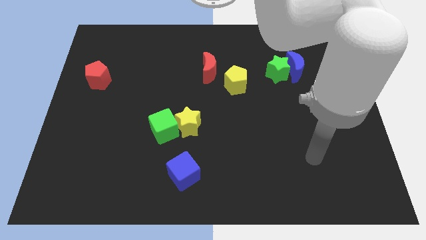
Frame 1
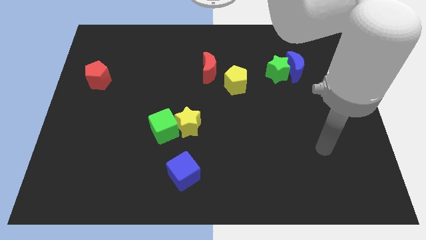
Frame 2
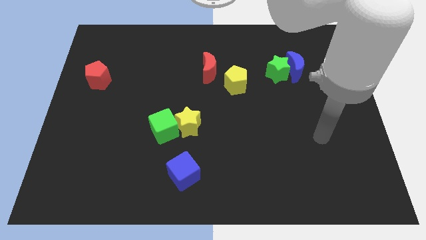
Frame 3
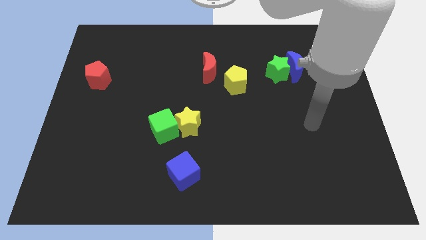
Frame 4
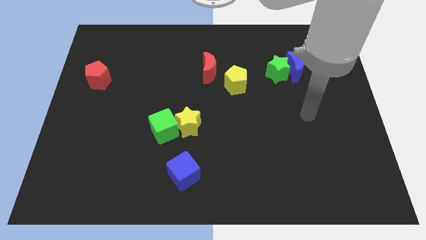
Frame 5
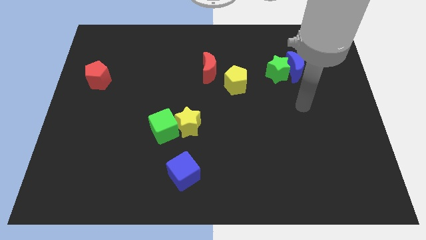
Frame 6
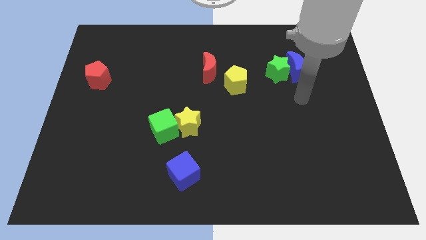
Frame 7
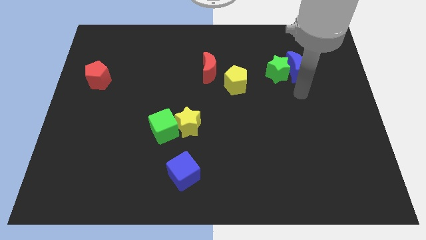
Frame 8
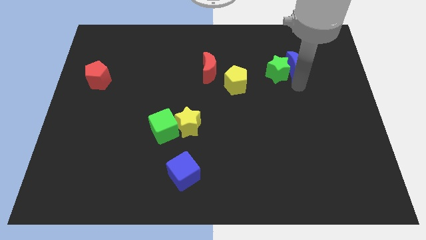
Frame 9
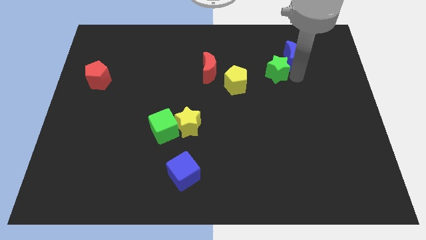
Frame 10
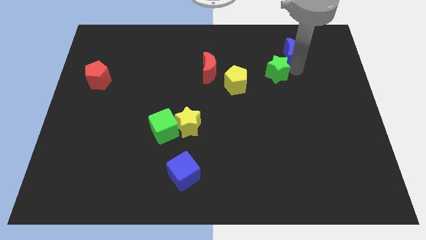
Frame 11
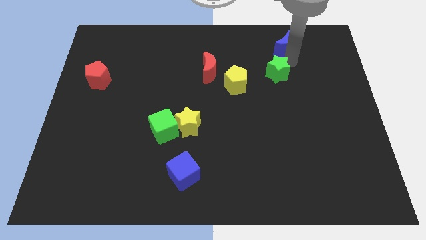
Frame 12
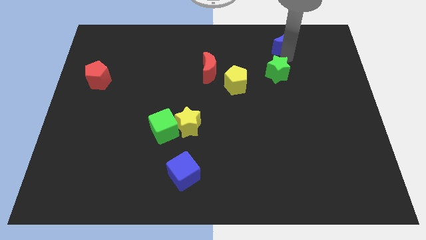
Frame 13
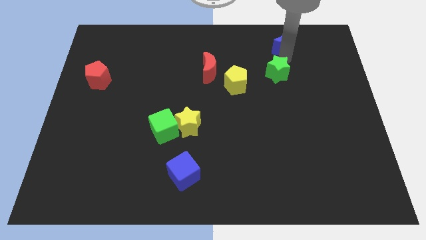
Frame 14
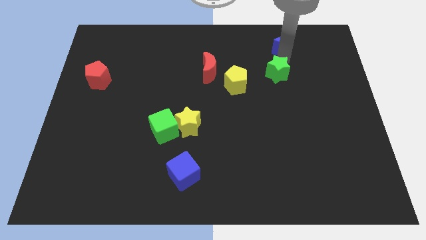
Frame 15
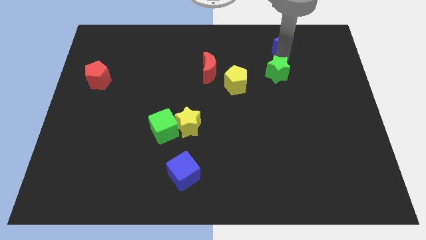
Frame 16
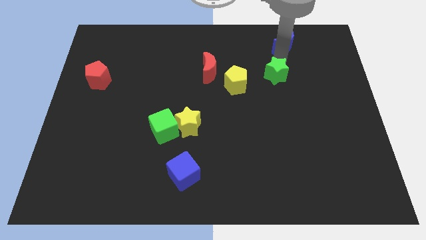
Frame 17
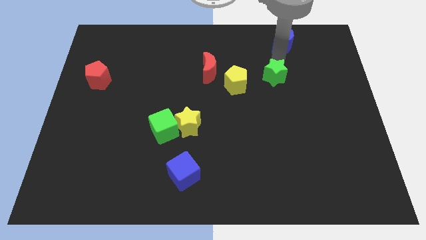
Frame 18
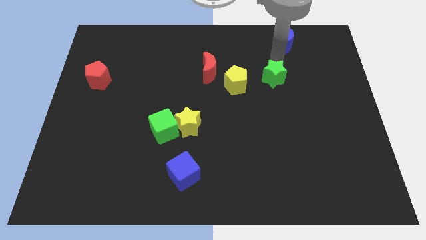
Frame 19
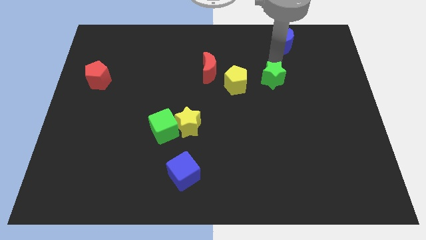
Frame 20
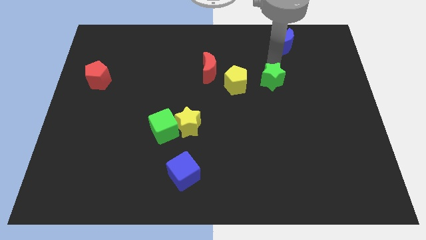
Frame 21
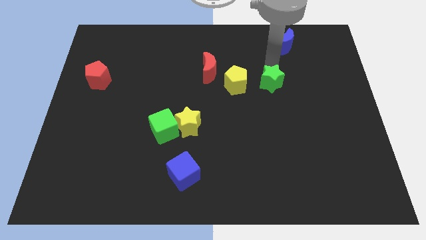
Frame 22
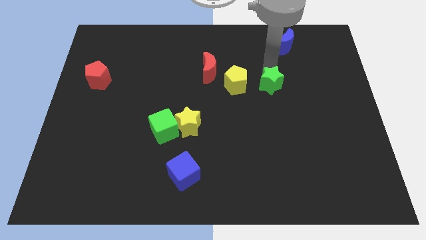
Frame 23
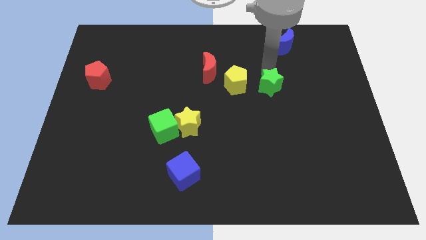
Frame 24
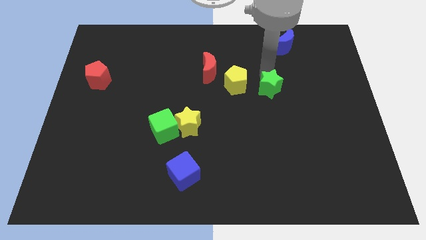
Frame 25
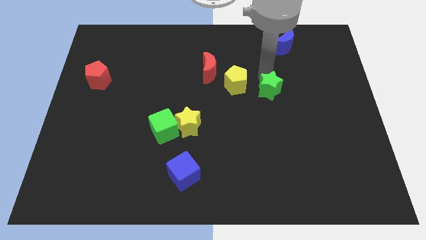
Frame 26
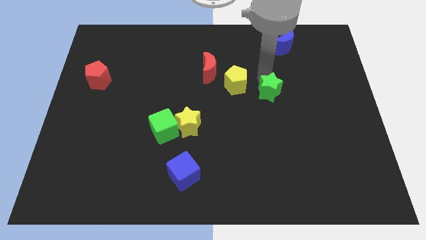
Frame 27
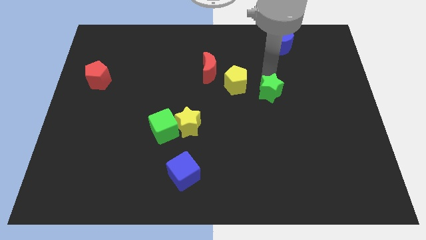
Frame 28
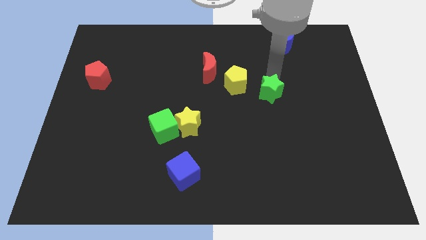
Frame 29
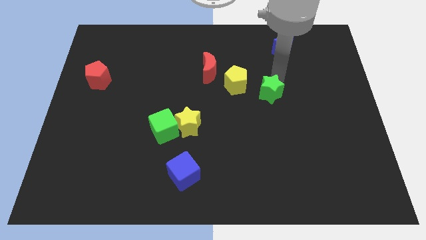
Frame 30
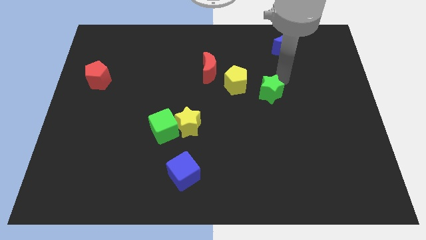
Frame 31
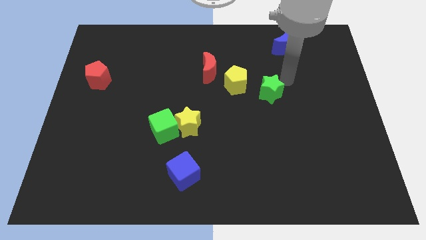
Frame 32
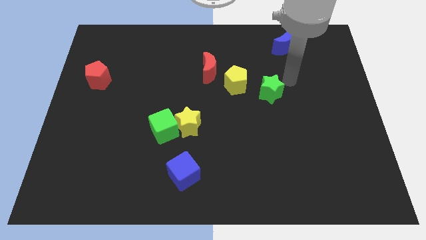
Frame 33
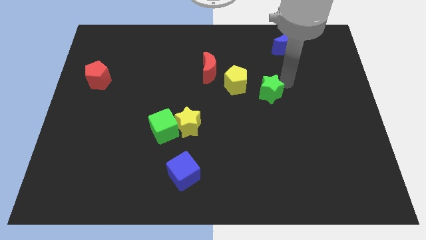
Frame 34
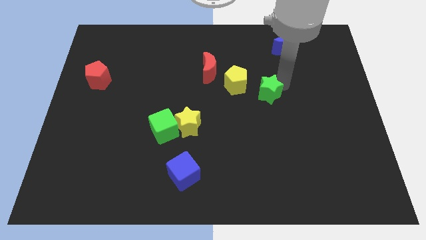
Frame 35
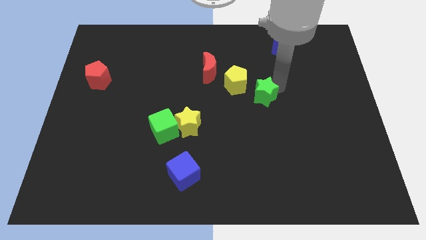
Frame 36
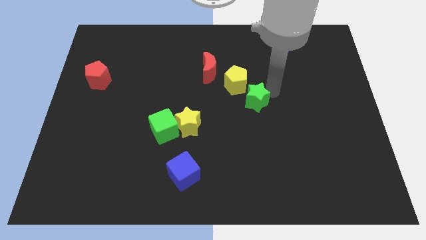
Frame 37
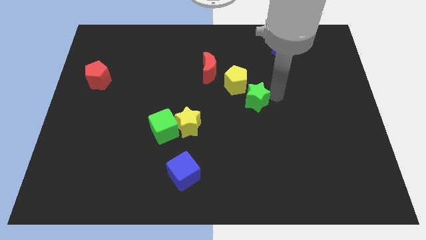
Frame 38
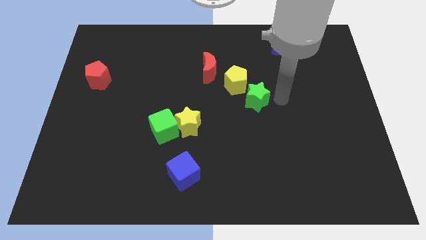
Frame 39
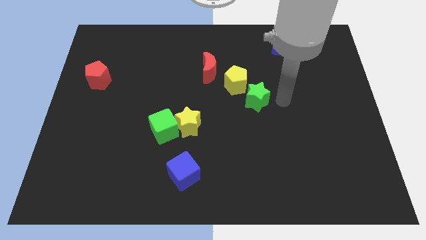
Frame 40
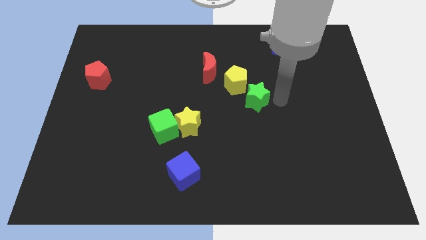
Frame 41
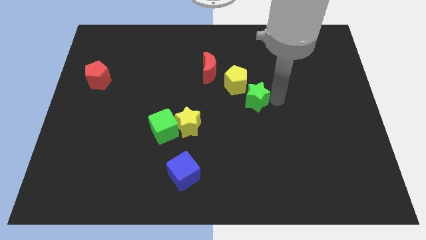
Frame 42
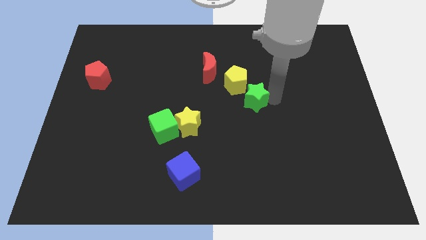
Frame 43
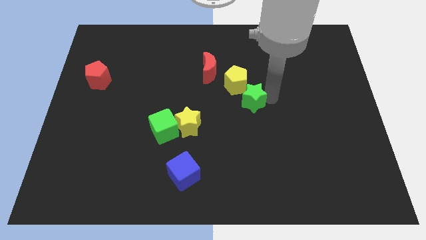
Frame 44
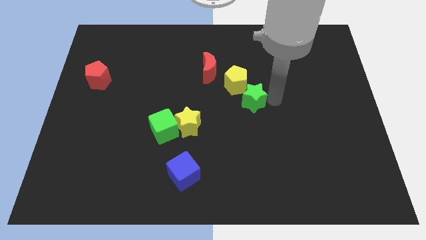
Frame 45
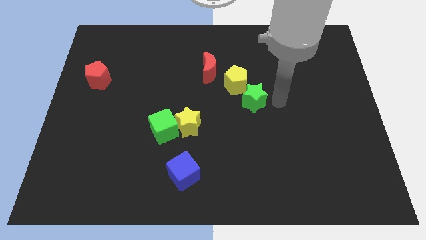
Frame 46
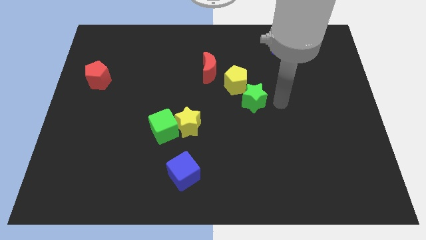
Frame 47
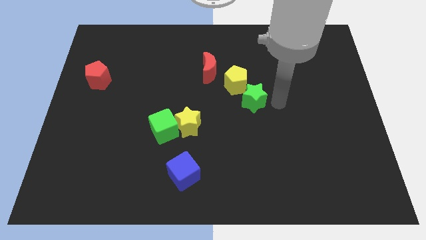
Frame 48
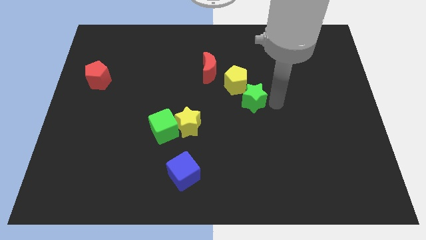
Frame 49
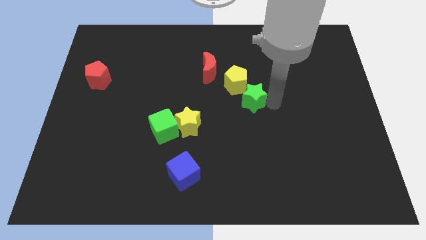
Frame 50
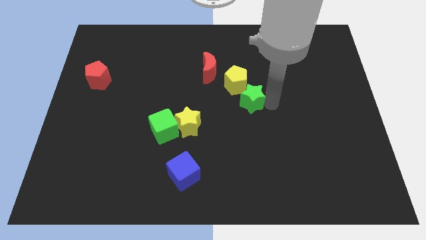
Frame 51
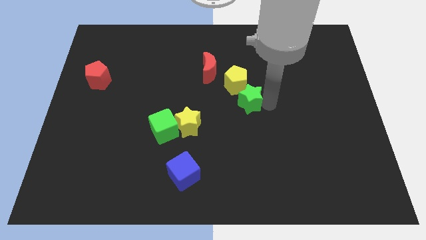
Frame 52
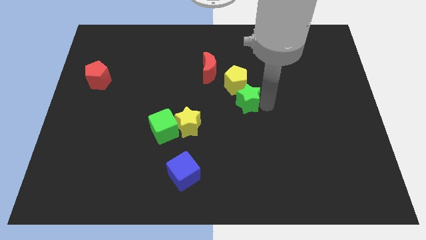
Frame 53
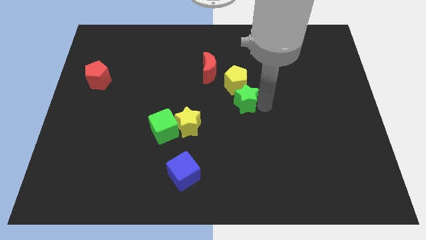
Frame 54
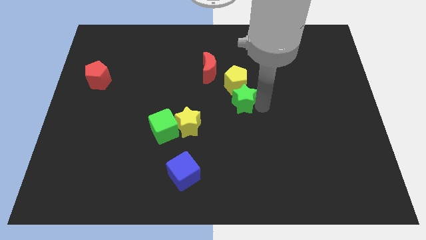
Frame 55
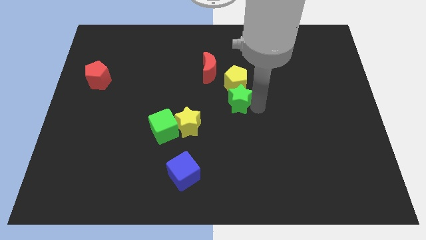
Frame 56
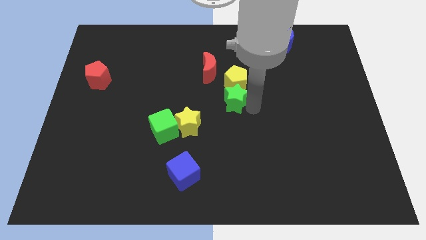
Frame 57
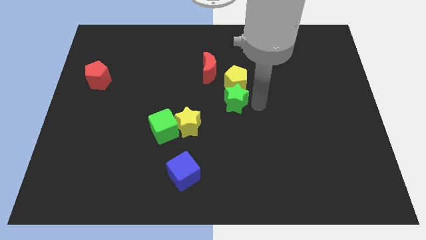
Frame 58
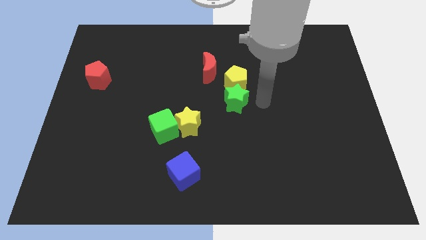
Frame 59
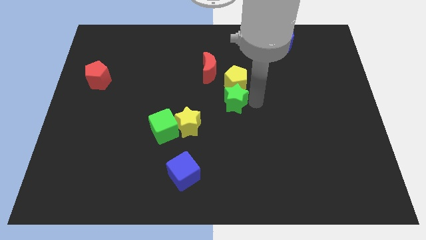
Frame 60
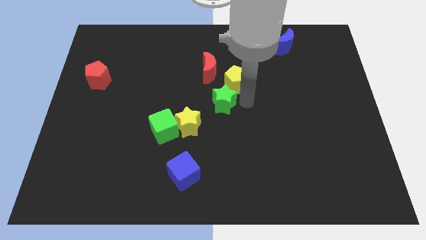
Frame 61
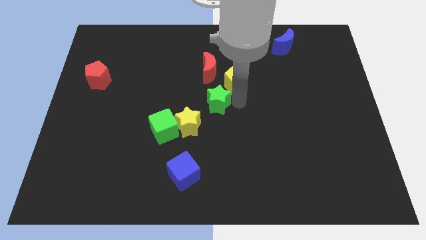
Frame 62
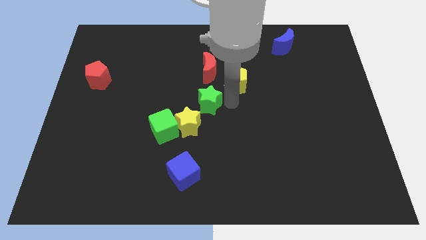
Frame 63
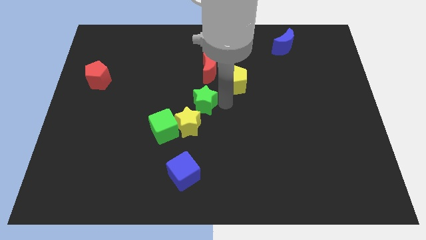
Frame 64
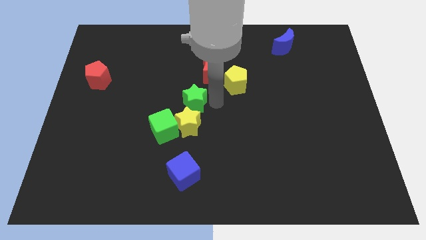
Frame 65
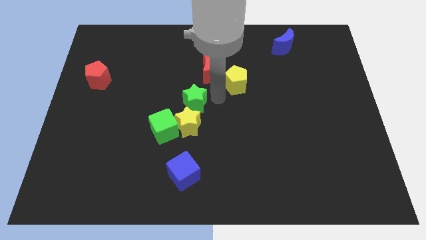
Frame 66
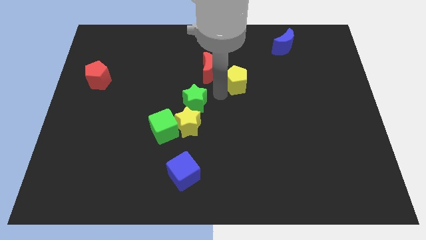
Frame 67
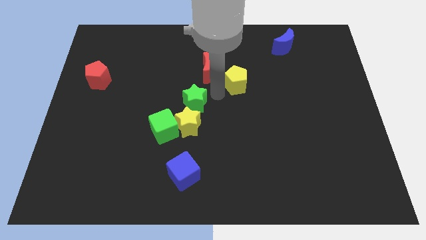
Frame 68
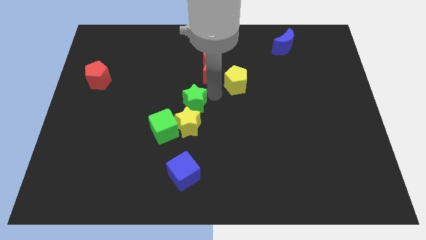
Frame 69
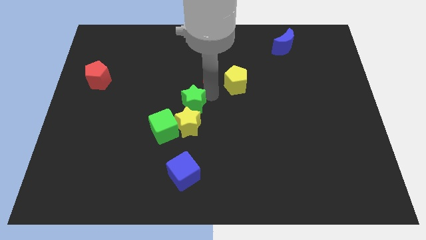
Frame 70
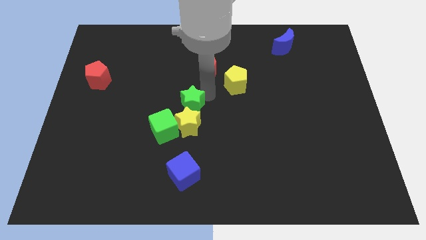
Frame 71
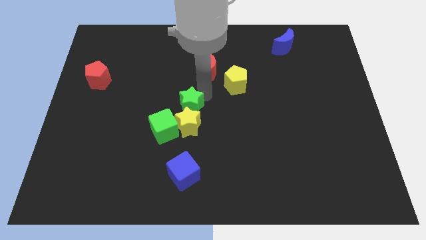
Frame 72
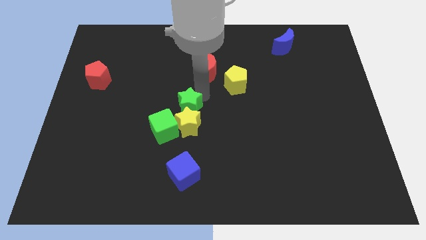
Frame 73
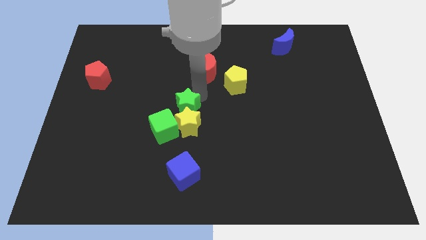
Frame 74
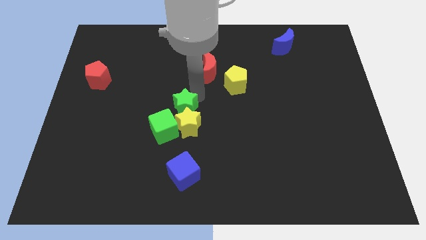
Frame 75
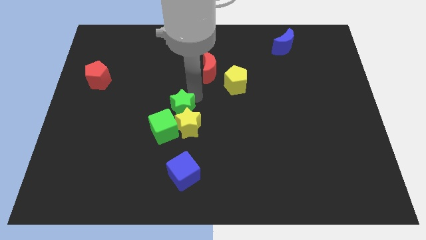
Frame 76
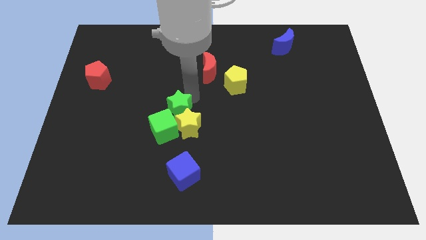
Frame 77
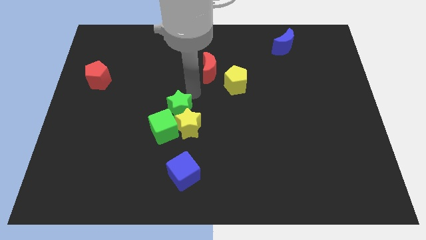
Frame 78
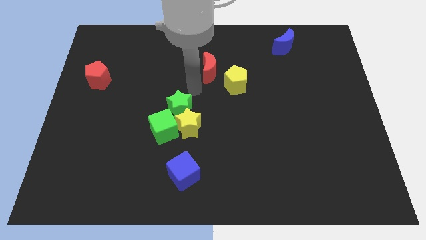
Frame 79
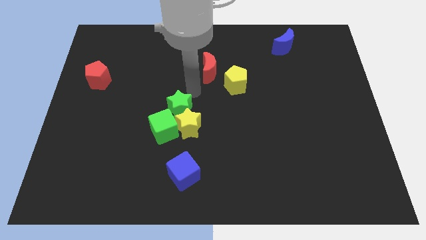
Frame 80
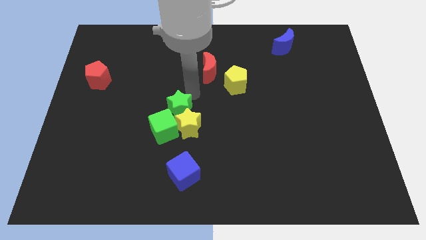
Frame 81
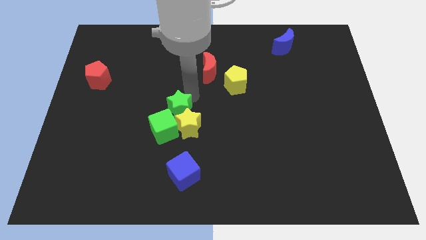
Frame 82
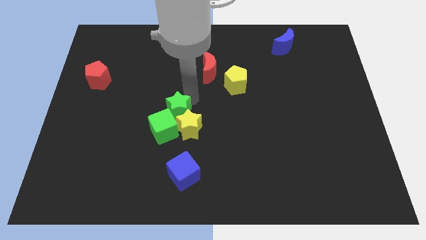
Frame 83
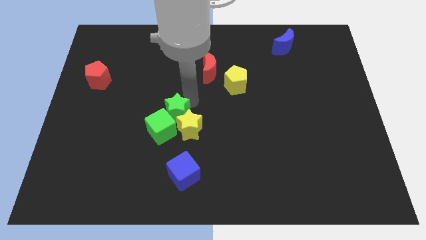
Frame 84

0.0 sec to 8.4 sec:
put the green star to the green cube
